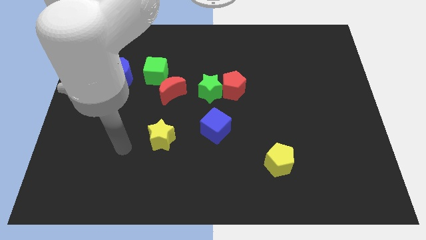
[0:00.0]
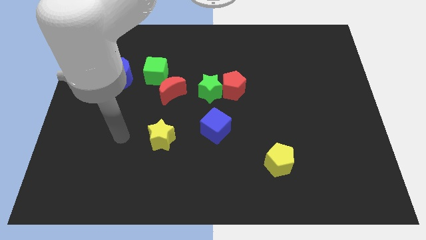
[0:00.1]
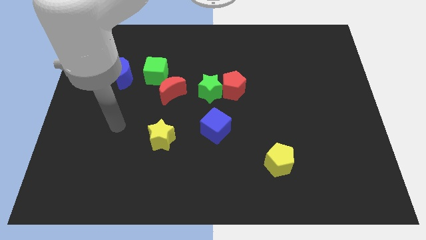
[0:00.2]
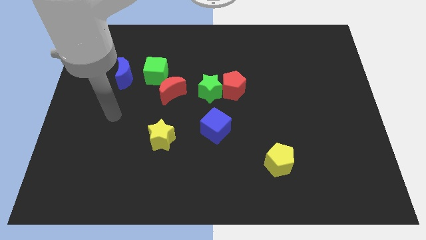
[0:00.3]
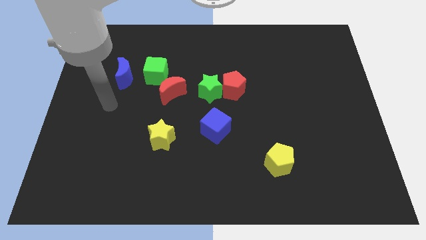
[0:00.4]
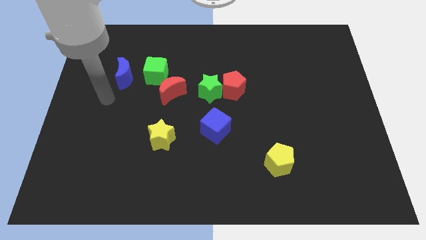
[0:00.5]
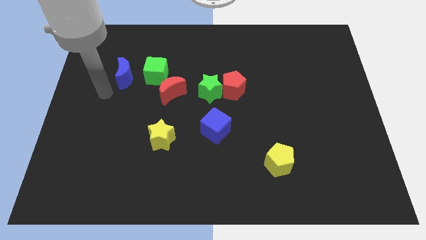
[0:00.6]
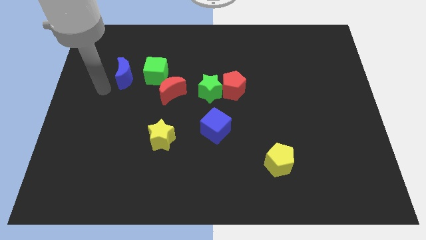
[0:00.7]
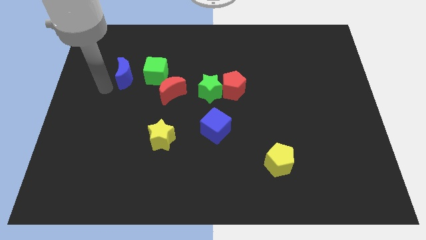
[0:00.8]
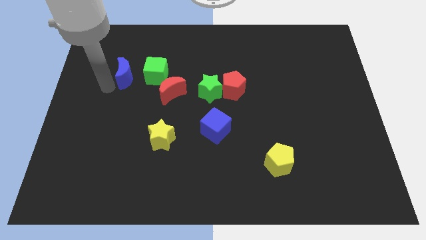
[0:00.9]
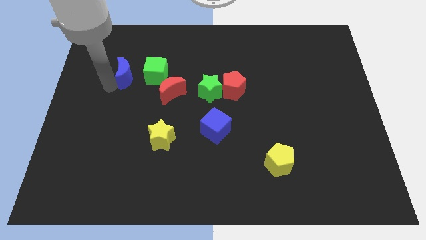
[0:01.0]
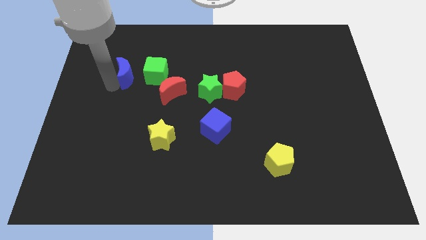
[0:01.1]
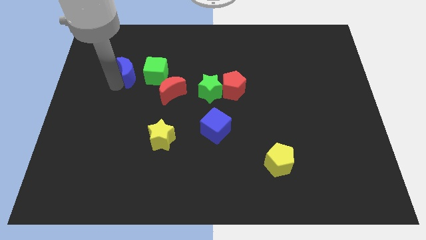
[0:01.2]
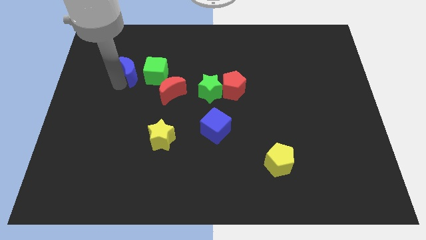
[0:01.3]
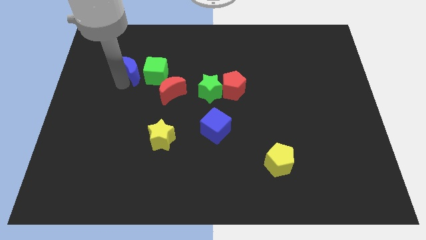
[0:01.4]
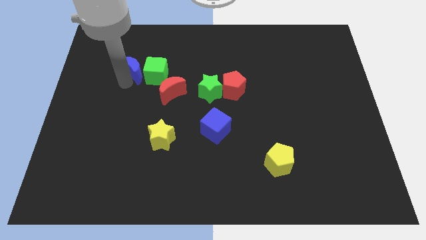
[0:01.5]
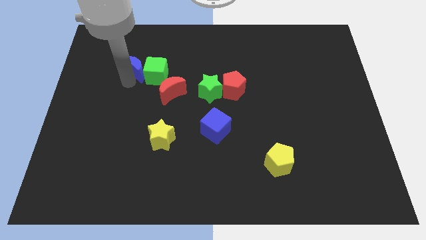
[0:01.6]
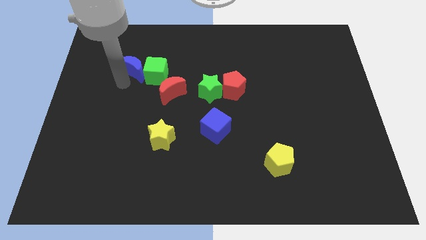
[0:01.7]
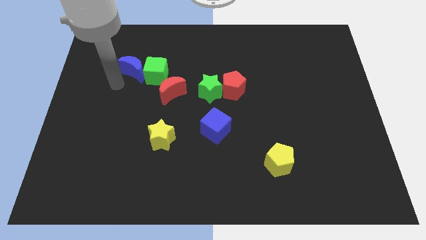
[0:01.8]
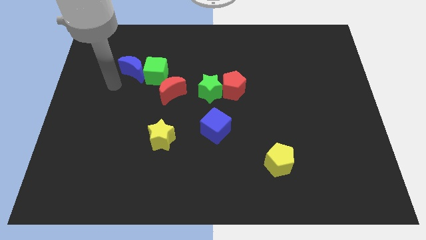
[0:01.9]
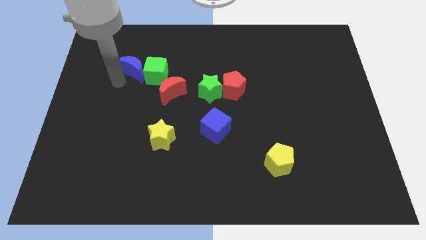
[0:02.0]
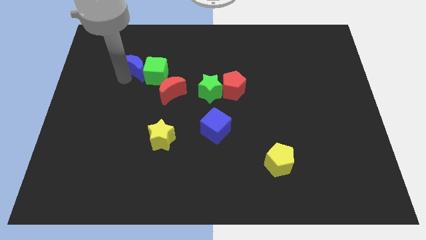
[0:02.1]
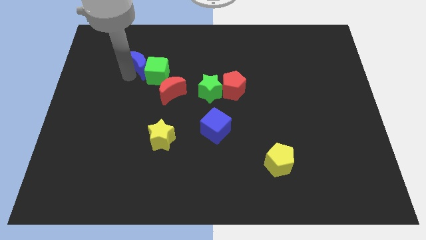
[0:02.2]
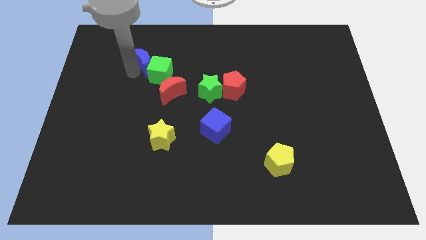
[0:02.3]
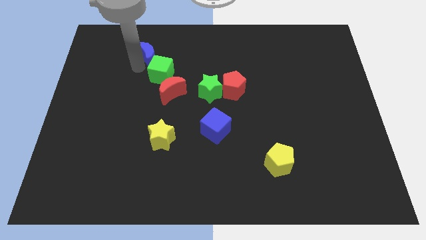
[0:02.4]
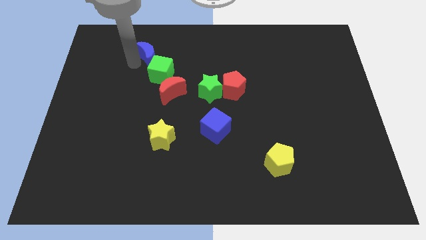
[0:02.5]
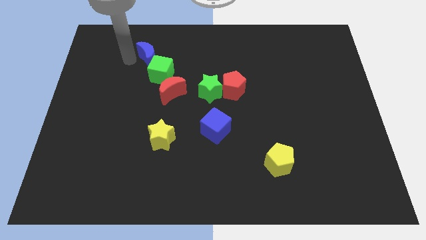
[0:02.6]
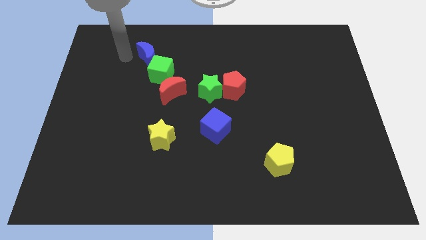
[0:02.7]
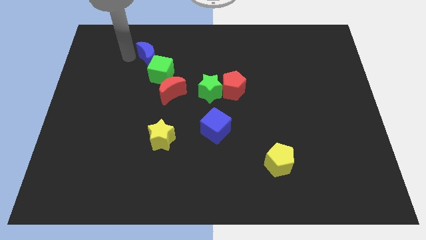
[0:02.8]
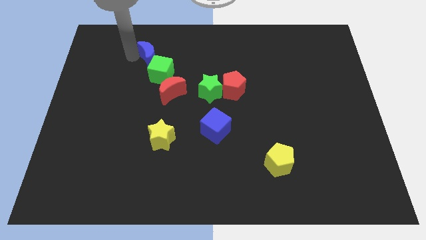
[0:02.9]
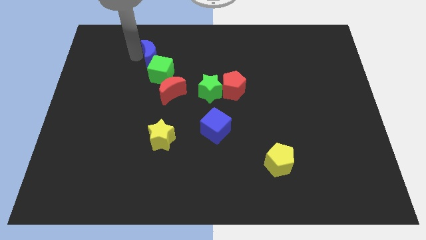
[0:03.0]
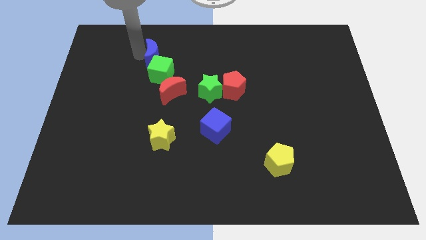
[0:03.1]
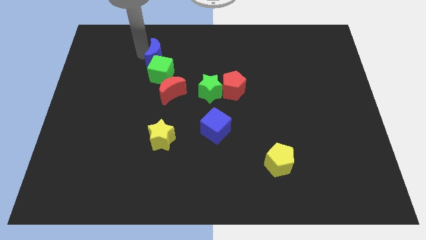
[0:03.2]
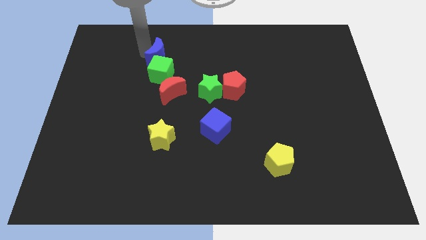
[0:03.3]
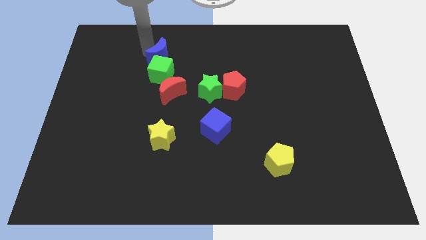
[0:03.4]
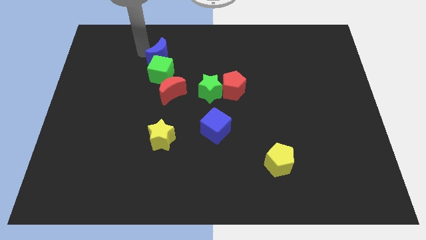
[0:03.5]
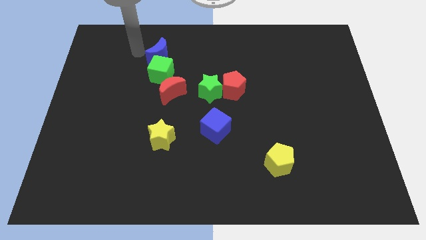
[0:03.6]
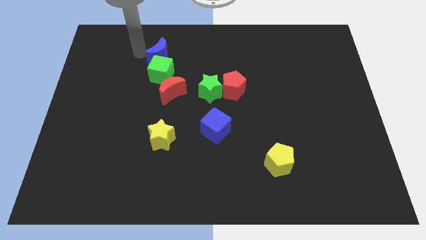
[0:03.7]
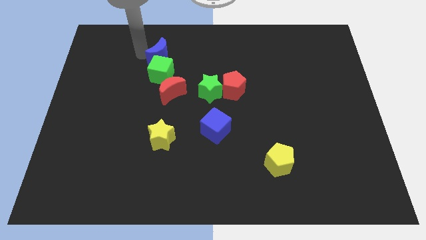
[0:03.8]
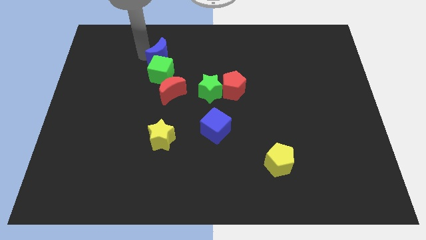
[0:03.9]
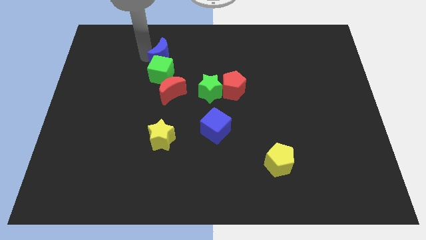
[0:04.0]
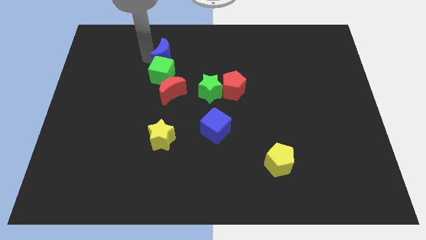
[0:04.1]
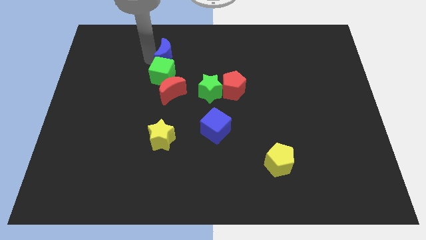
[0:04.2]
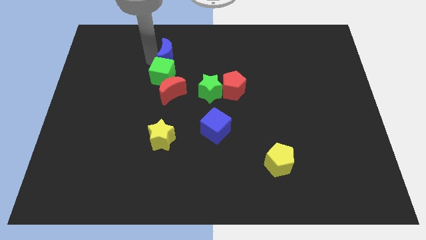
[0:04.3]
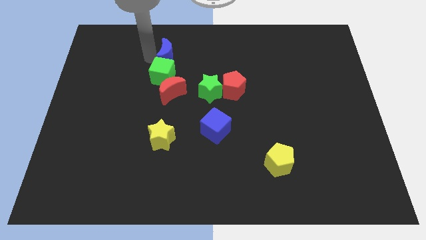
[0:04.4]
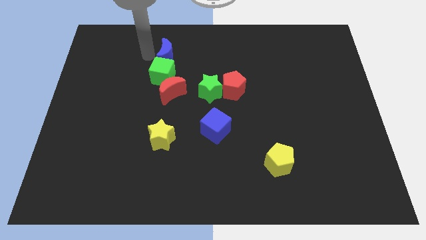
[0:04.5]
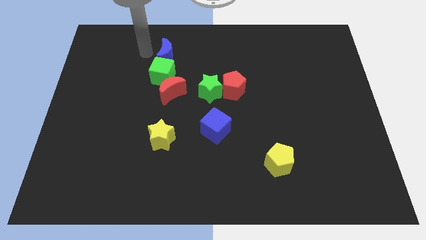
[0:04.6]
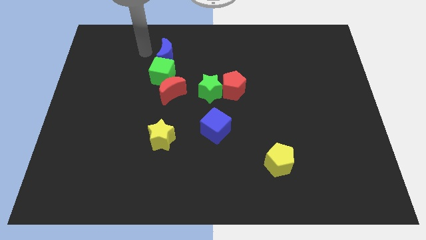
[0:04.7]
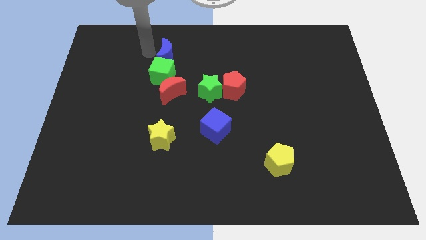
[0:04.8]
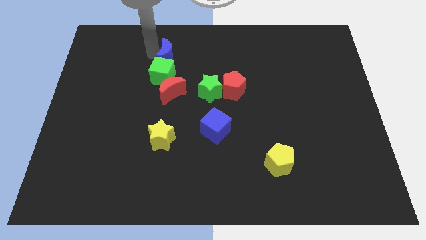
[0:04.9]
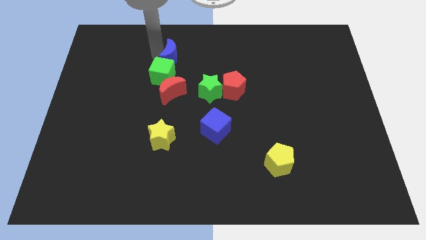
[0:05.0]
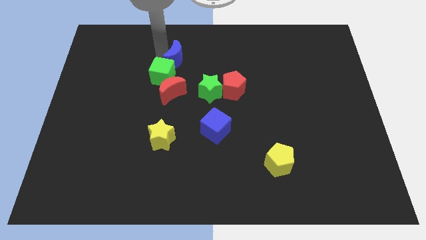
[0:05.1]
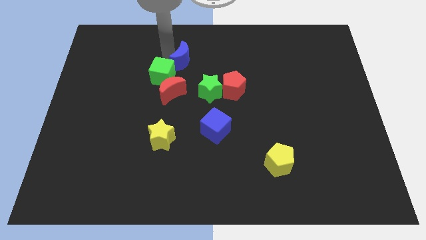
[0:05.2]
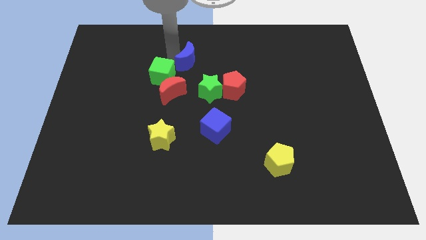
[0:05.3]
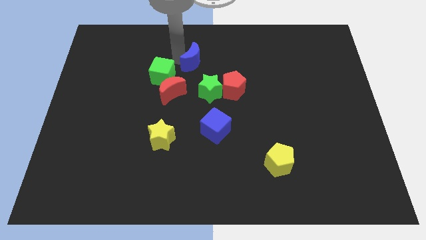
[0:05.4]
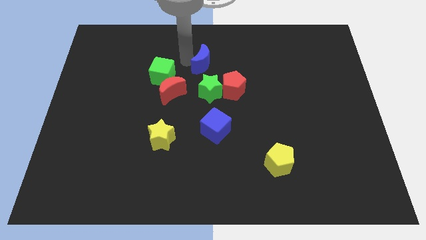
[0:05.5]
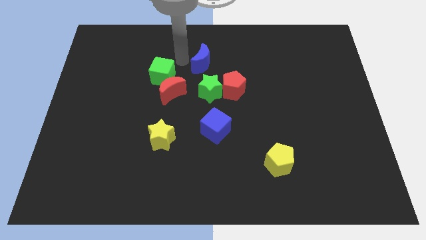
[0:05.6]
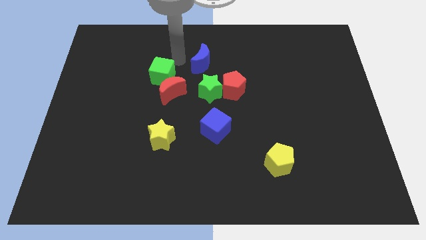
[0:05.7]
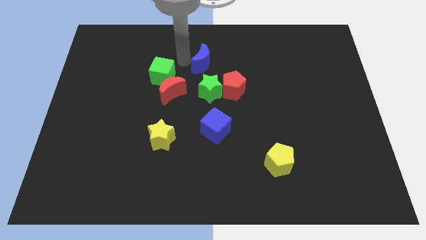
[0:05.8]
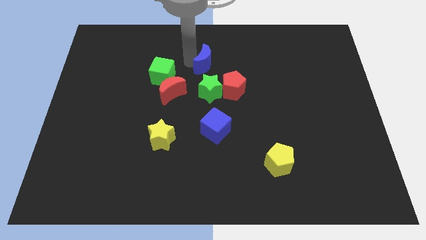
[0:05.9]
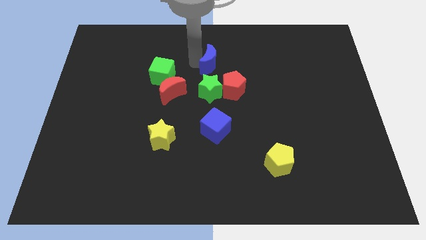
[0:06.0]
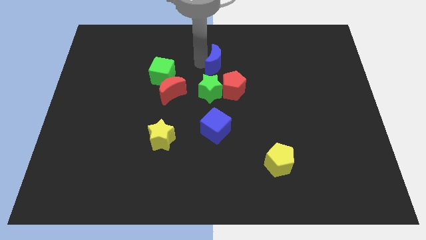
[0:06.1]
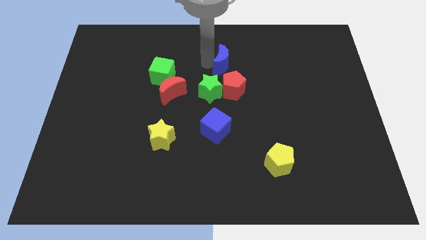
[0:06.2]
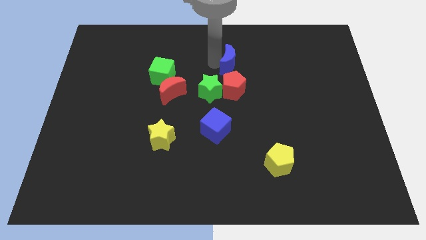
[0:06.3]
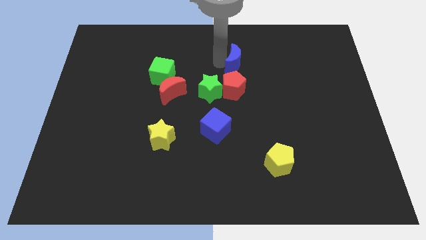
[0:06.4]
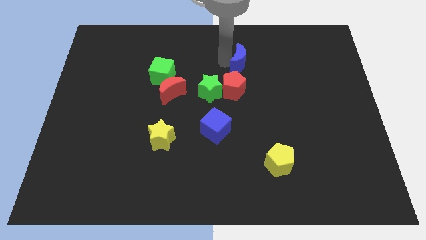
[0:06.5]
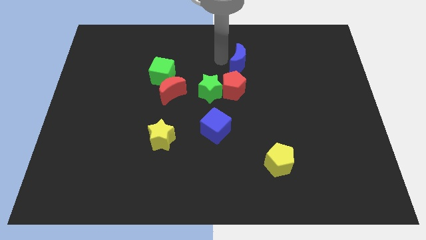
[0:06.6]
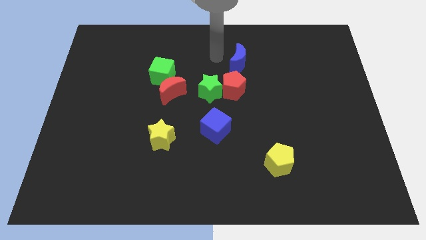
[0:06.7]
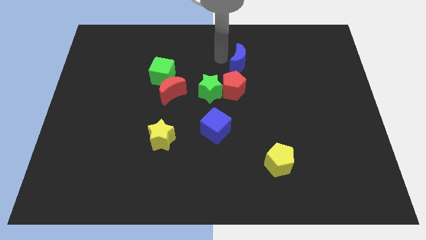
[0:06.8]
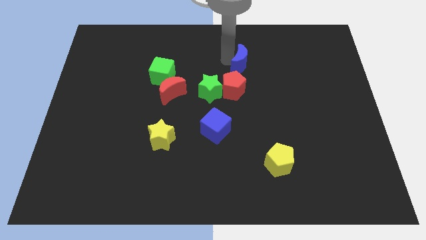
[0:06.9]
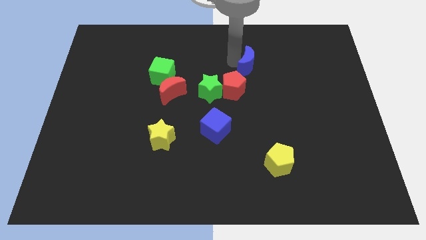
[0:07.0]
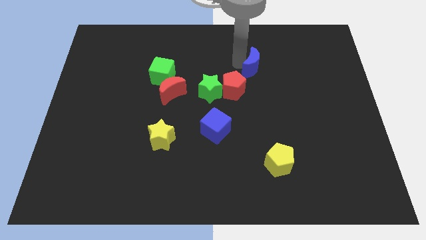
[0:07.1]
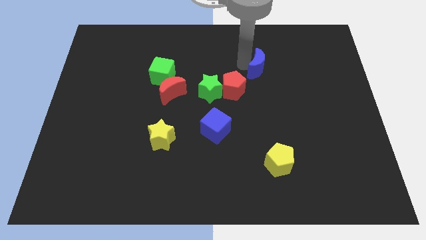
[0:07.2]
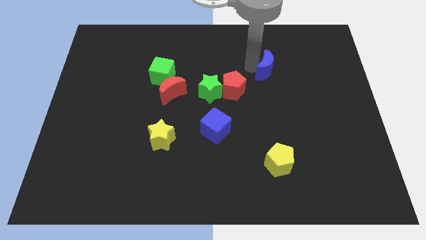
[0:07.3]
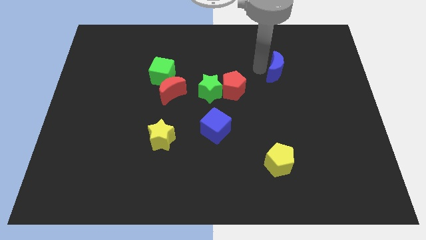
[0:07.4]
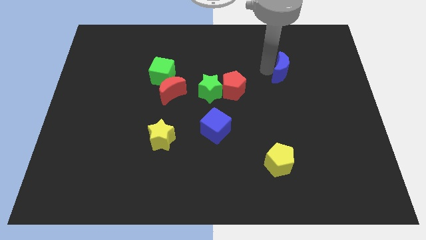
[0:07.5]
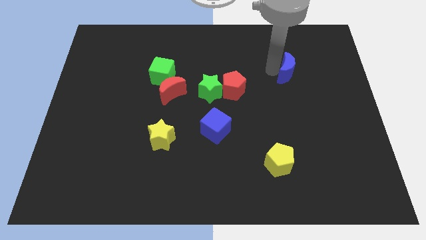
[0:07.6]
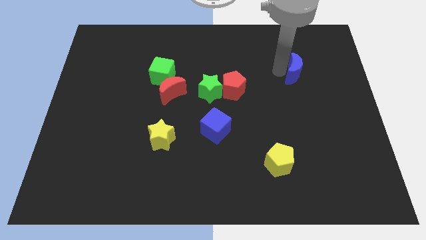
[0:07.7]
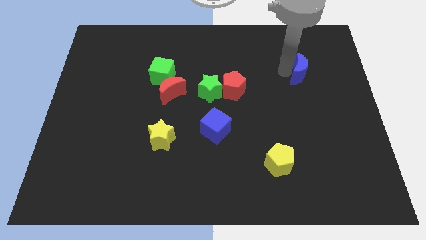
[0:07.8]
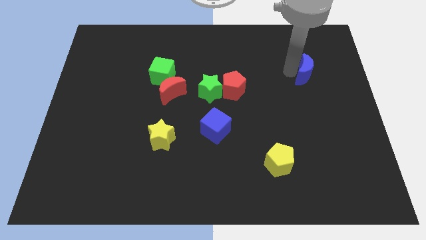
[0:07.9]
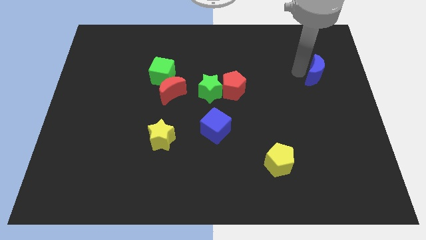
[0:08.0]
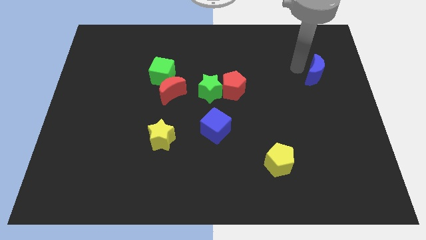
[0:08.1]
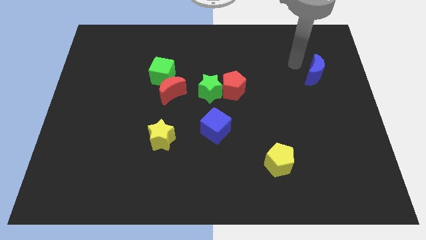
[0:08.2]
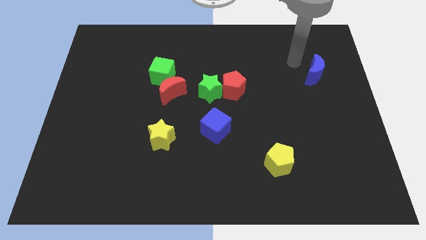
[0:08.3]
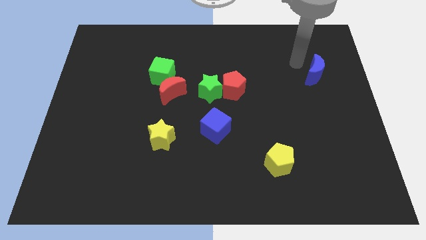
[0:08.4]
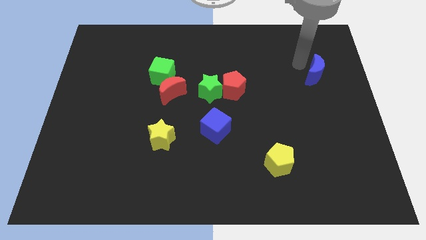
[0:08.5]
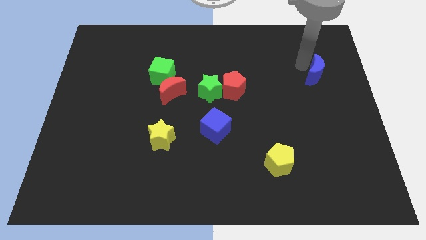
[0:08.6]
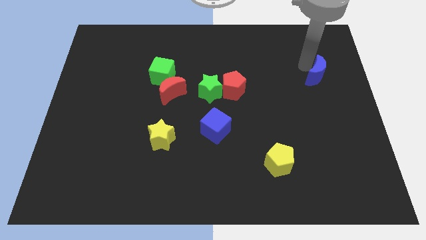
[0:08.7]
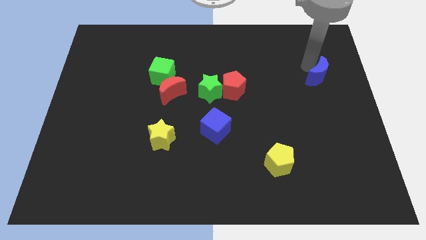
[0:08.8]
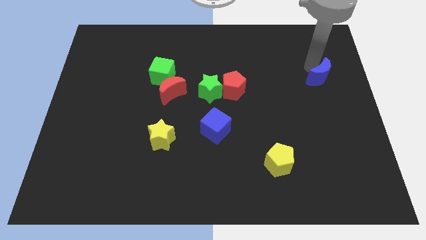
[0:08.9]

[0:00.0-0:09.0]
move the blue moon to the right side of the board
